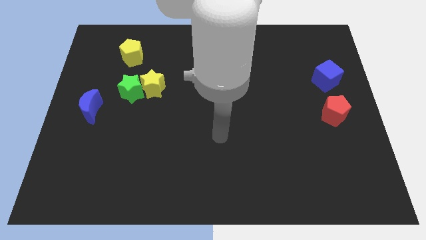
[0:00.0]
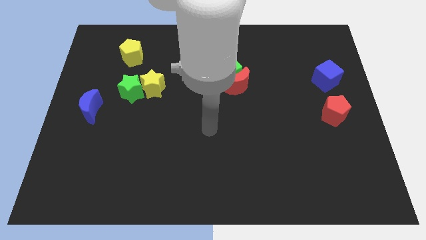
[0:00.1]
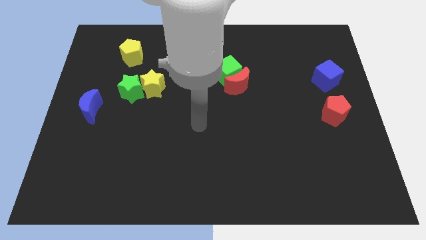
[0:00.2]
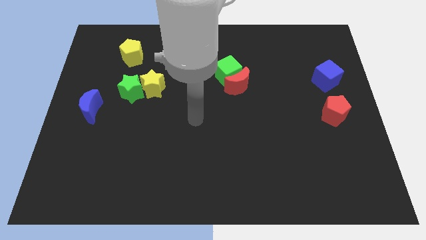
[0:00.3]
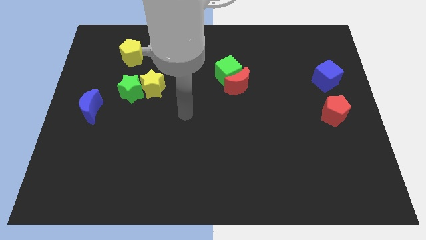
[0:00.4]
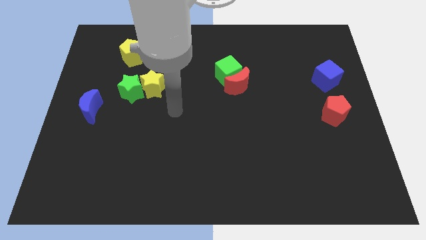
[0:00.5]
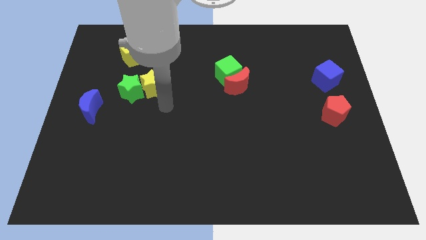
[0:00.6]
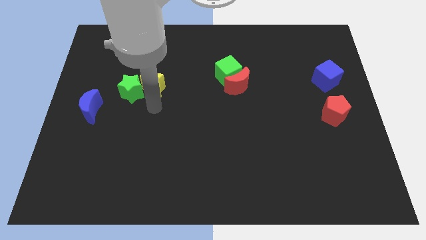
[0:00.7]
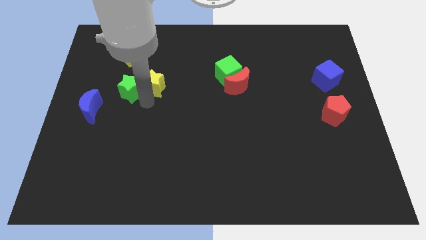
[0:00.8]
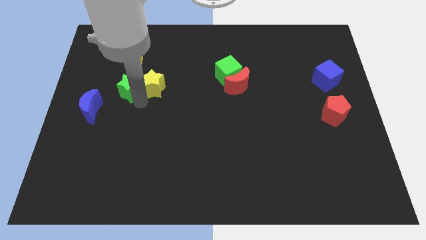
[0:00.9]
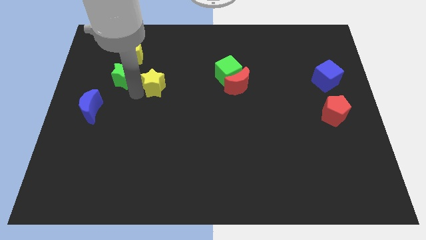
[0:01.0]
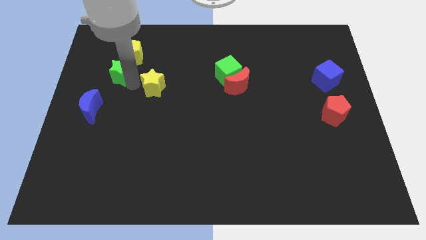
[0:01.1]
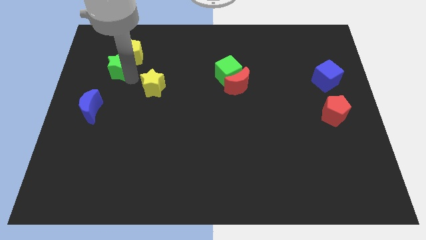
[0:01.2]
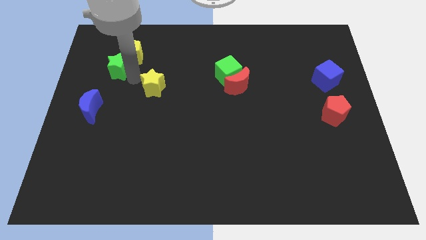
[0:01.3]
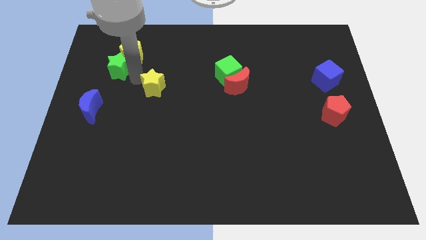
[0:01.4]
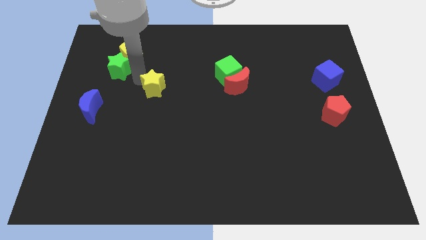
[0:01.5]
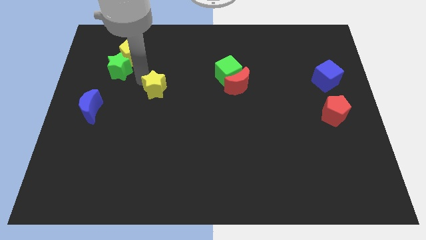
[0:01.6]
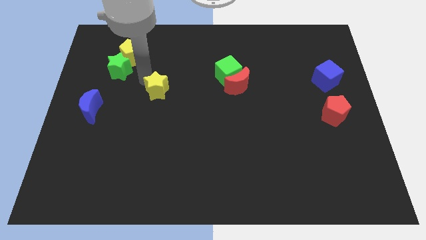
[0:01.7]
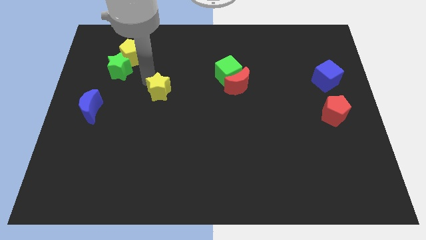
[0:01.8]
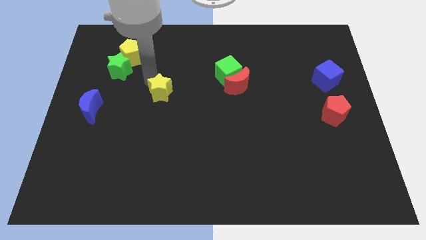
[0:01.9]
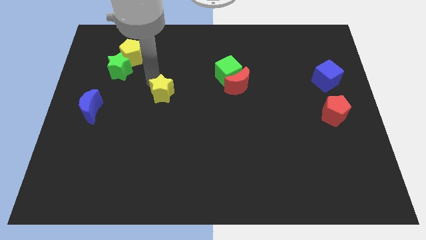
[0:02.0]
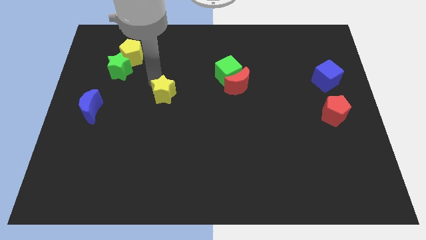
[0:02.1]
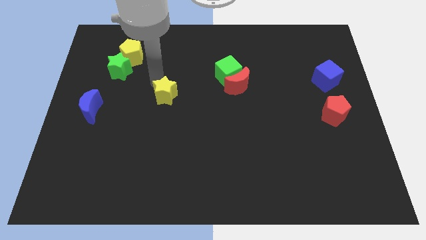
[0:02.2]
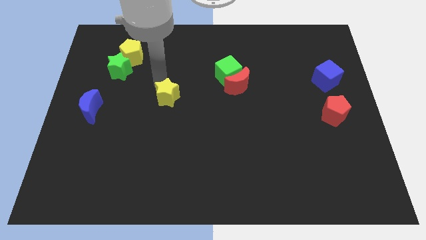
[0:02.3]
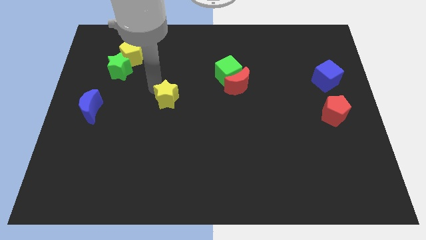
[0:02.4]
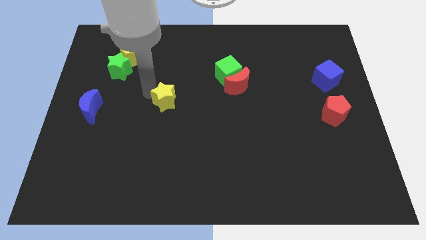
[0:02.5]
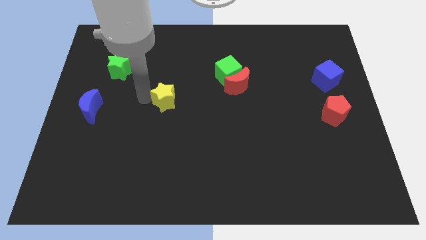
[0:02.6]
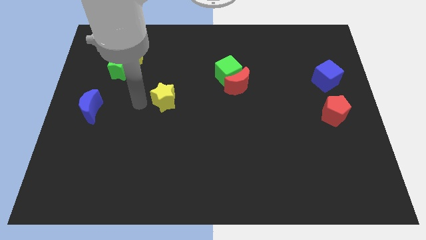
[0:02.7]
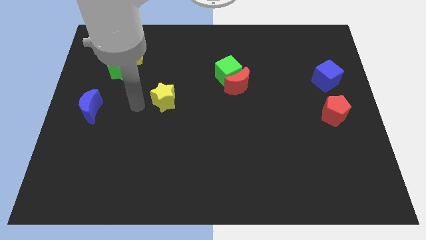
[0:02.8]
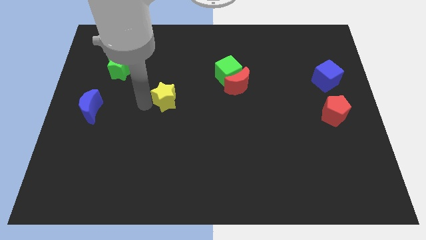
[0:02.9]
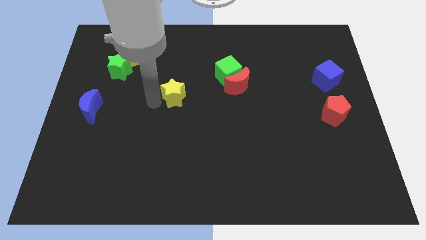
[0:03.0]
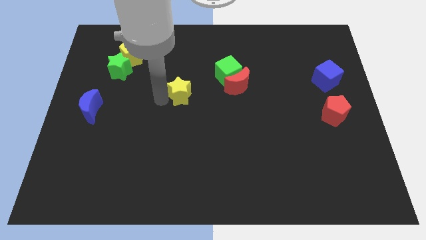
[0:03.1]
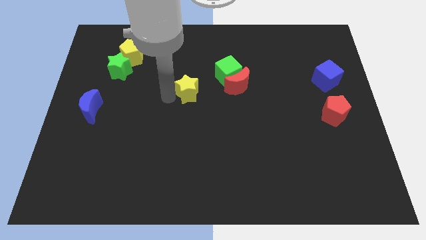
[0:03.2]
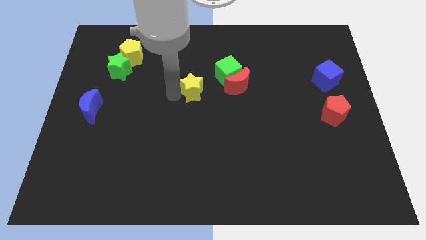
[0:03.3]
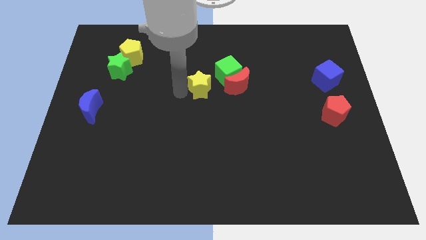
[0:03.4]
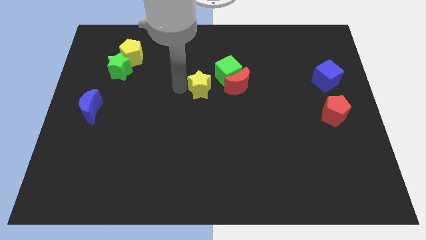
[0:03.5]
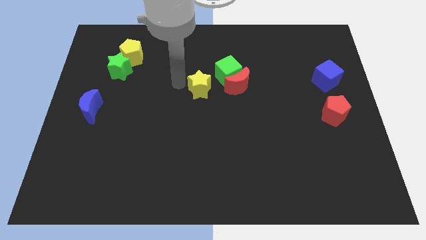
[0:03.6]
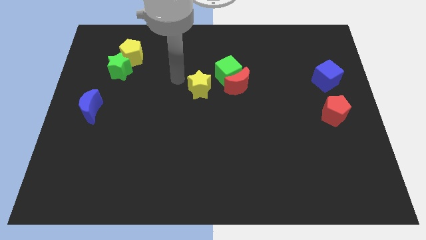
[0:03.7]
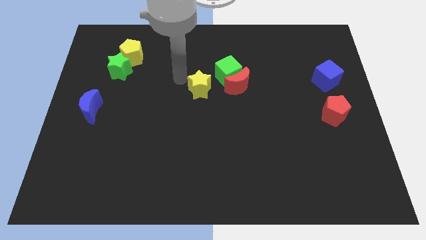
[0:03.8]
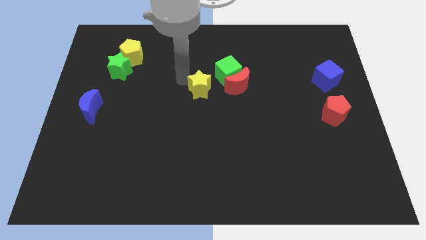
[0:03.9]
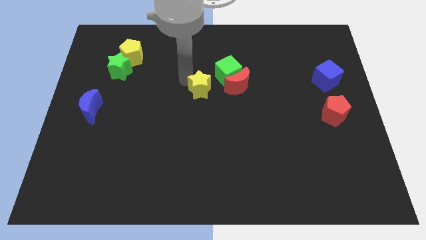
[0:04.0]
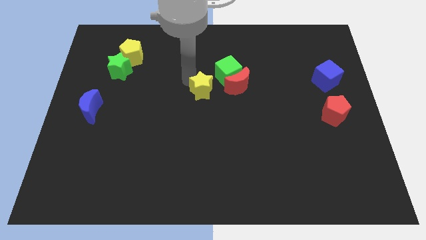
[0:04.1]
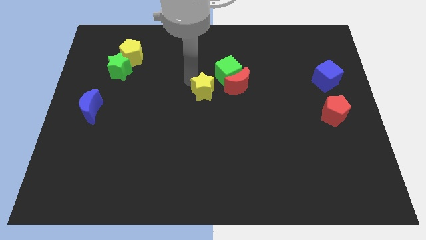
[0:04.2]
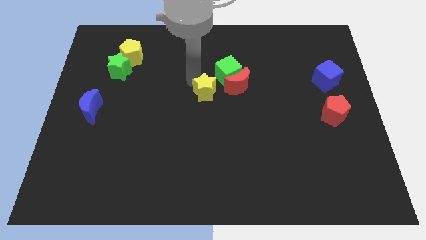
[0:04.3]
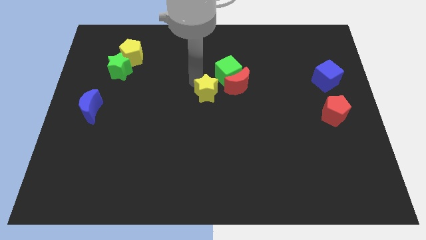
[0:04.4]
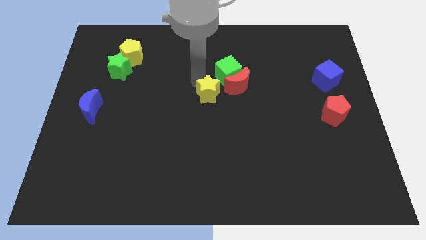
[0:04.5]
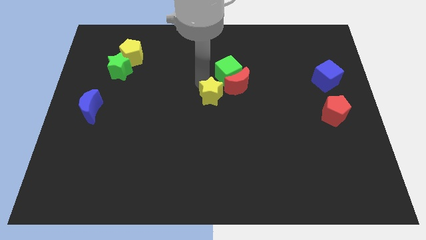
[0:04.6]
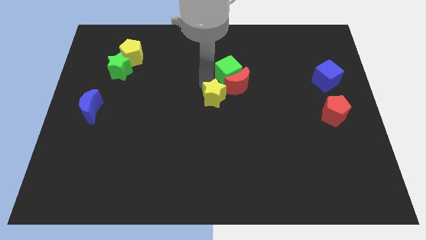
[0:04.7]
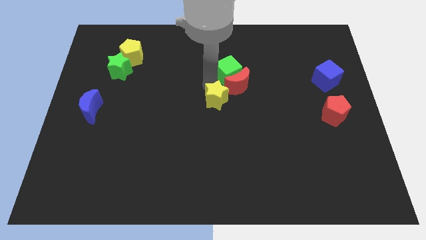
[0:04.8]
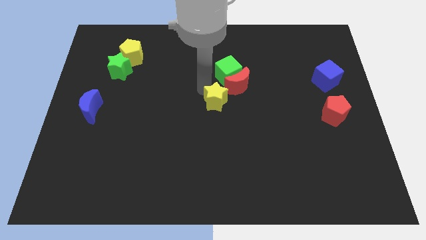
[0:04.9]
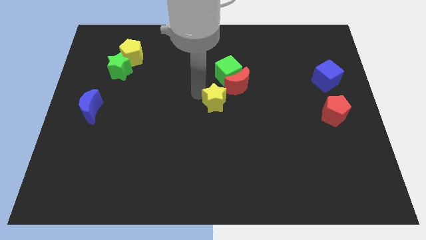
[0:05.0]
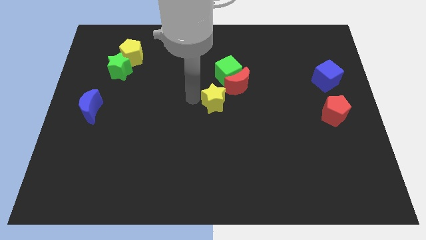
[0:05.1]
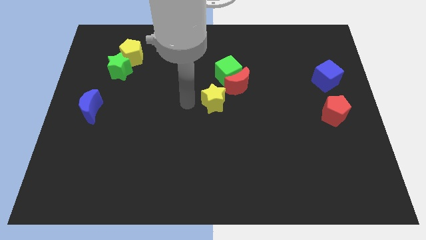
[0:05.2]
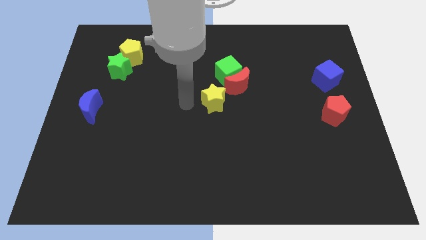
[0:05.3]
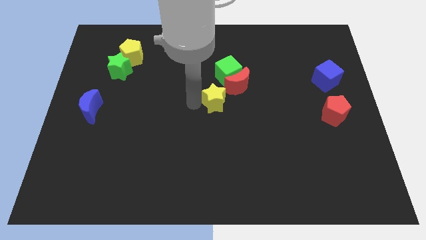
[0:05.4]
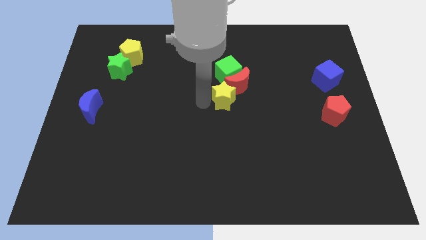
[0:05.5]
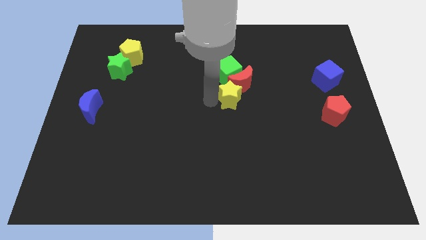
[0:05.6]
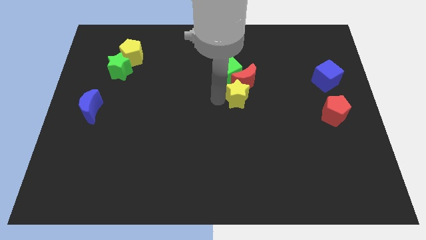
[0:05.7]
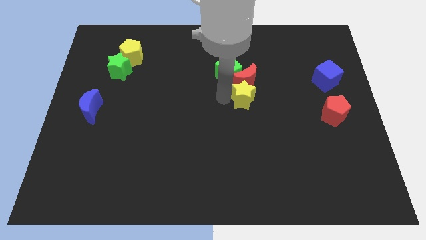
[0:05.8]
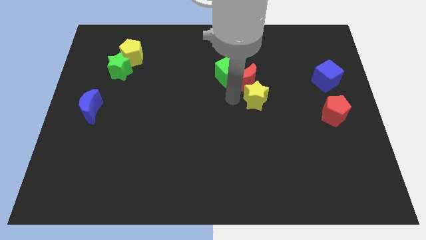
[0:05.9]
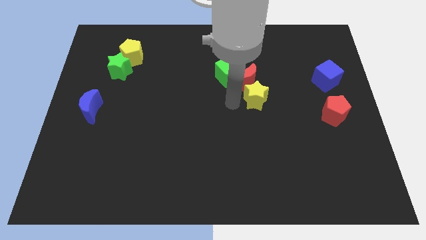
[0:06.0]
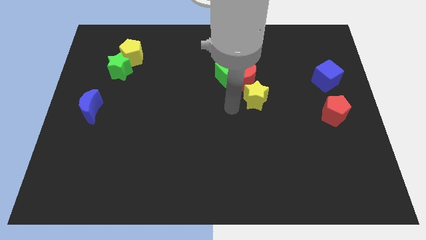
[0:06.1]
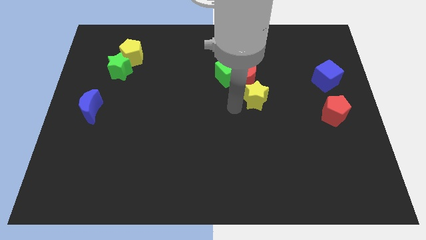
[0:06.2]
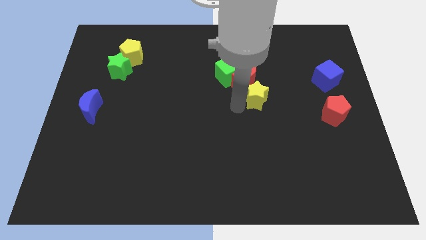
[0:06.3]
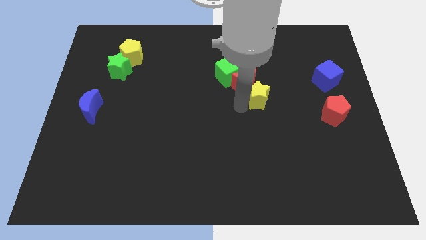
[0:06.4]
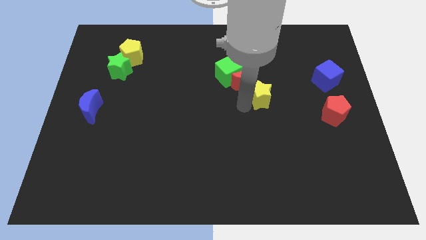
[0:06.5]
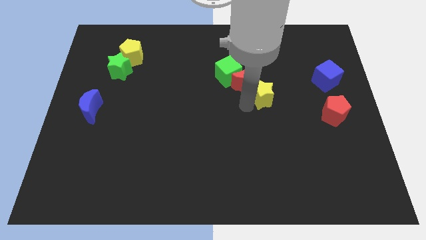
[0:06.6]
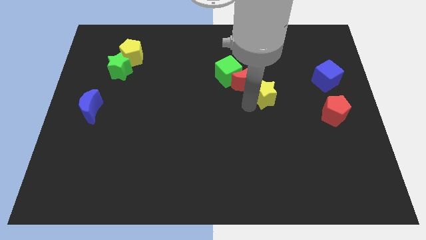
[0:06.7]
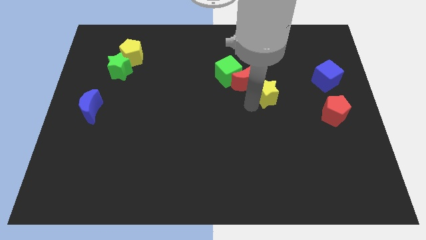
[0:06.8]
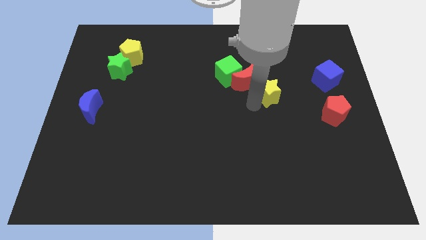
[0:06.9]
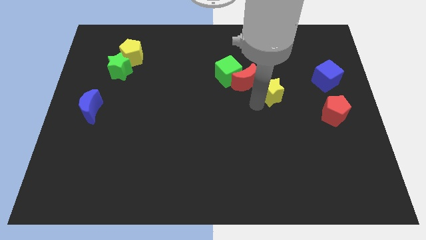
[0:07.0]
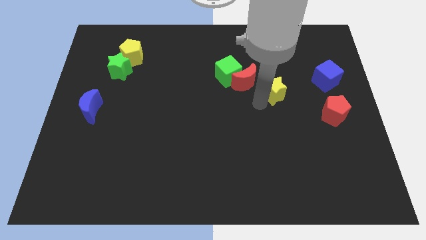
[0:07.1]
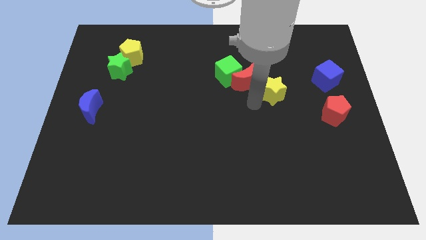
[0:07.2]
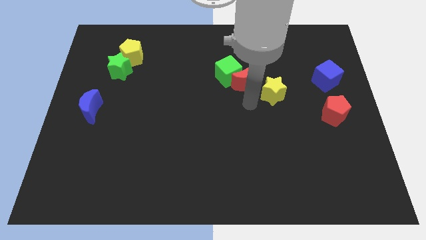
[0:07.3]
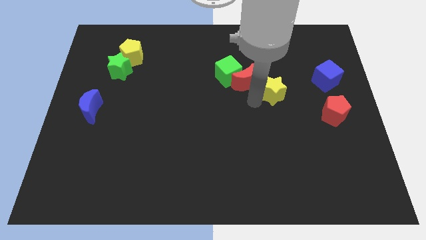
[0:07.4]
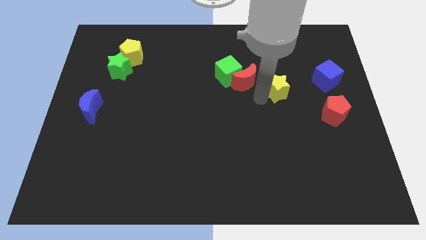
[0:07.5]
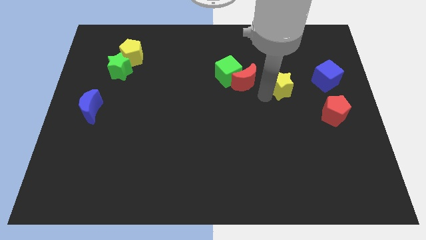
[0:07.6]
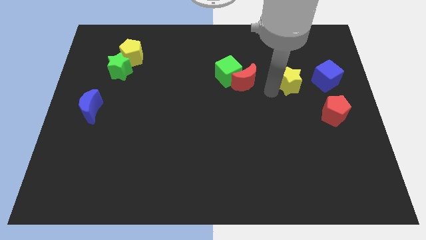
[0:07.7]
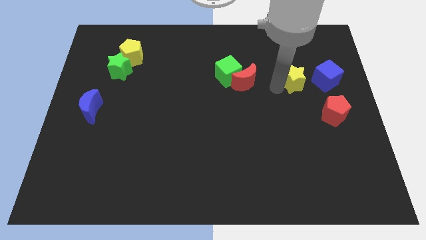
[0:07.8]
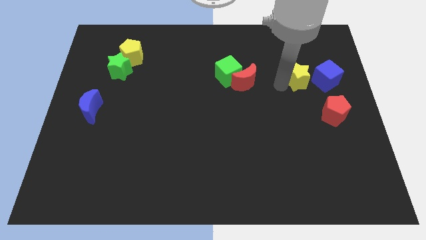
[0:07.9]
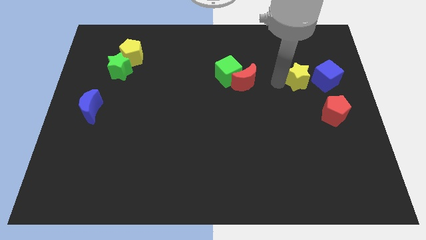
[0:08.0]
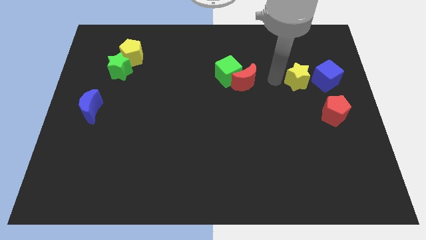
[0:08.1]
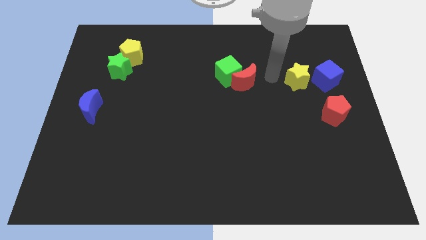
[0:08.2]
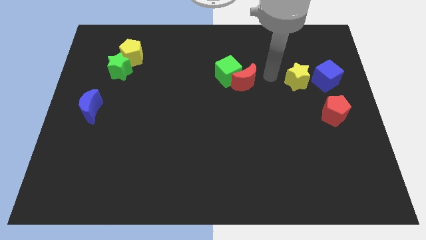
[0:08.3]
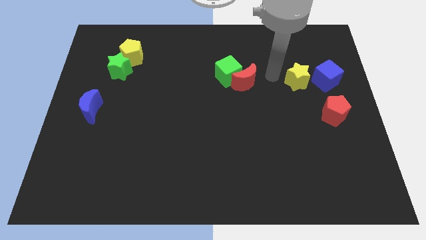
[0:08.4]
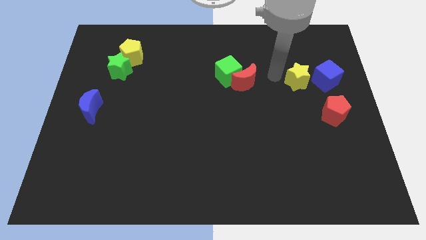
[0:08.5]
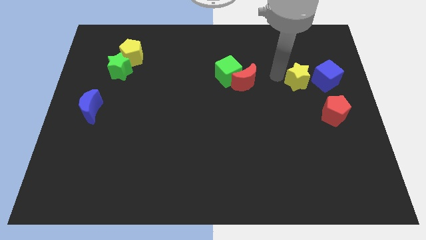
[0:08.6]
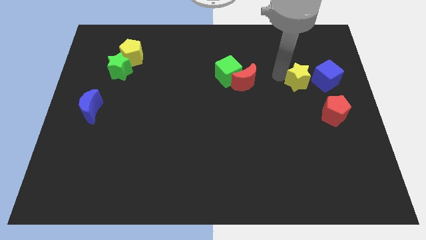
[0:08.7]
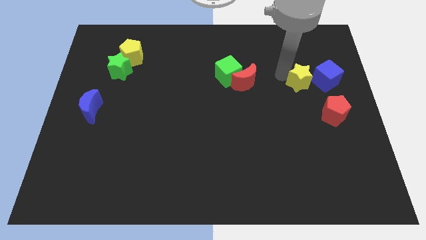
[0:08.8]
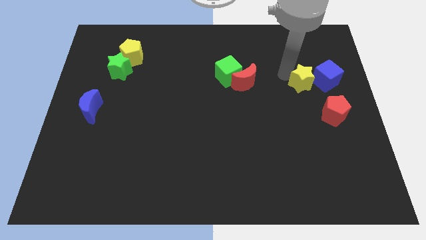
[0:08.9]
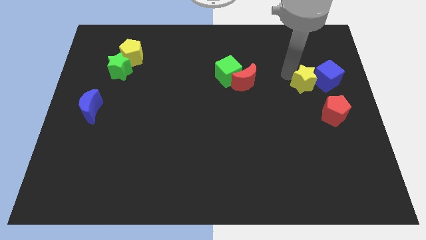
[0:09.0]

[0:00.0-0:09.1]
put the yellow star to the blue cube
